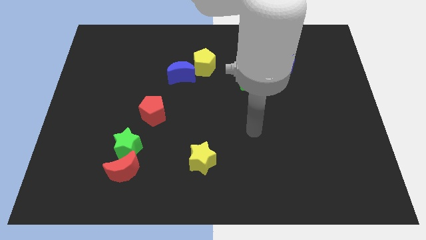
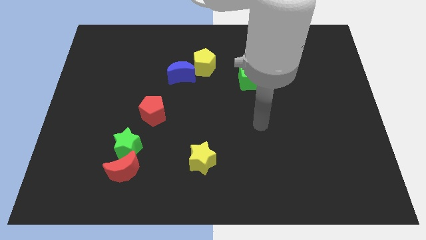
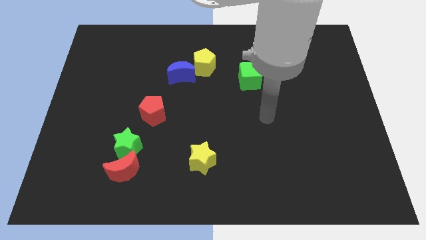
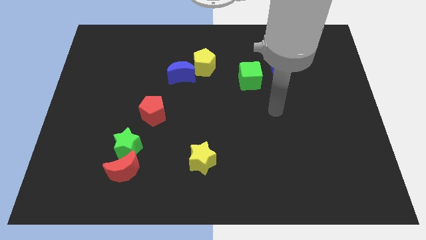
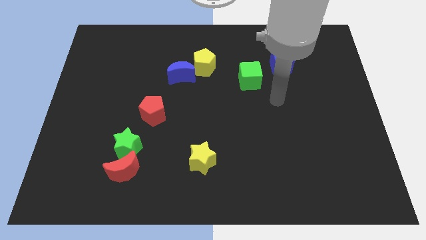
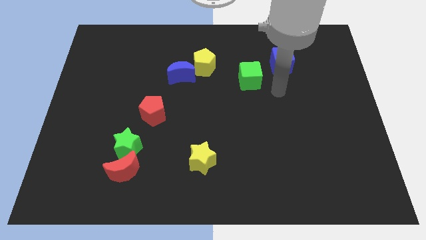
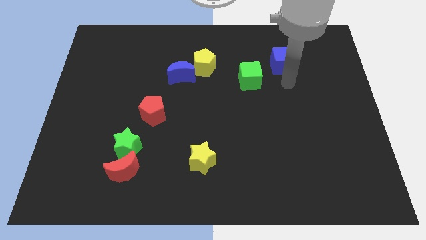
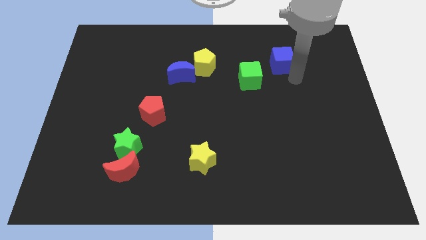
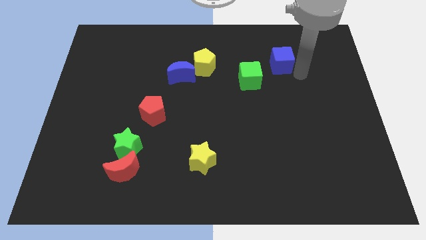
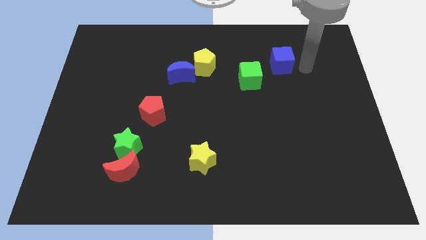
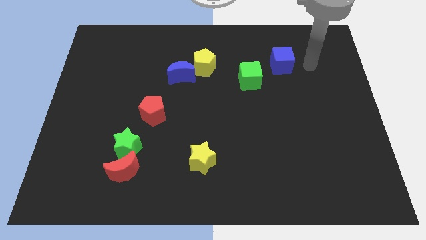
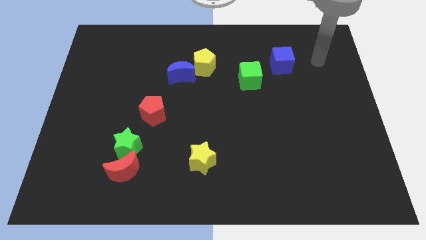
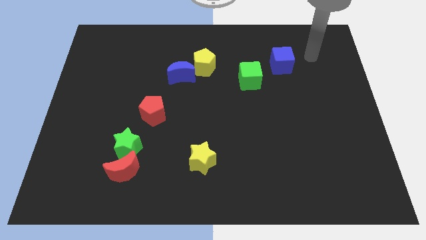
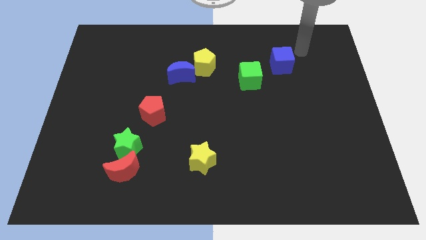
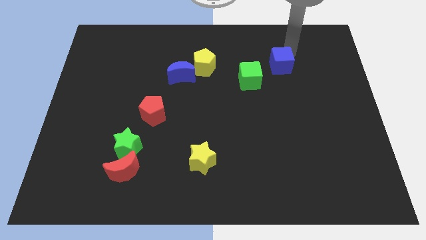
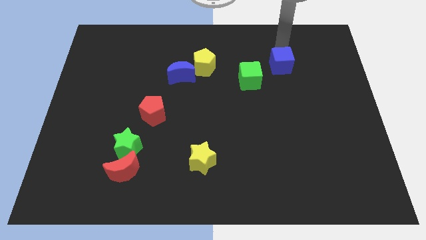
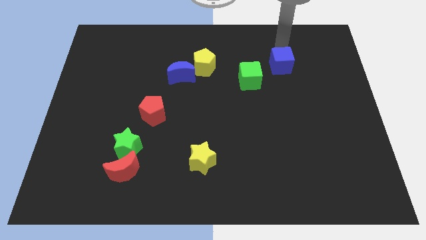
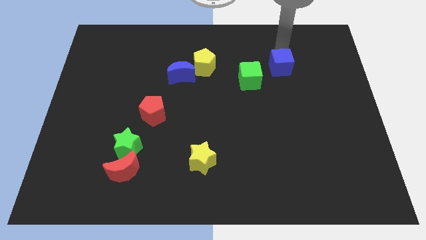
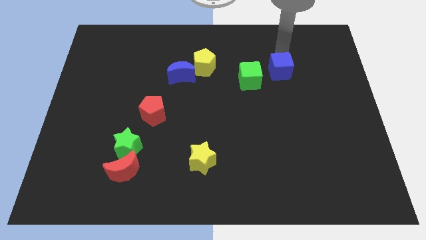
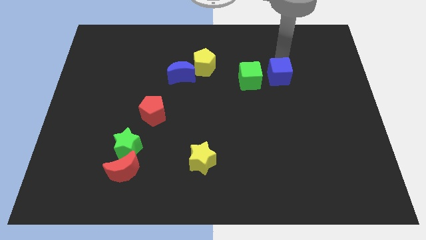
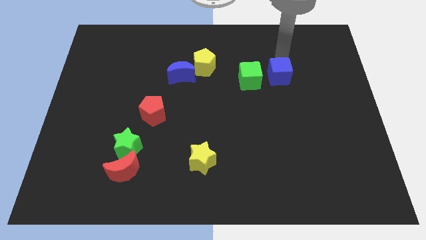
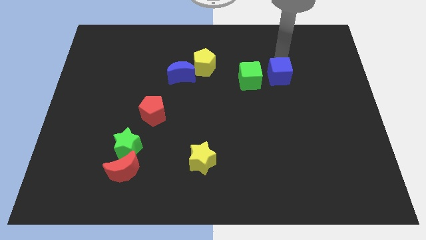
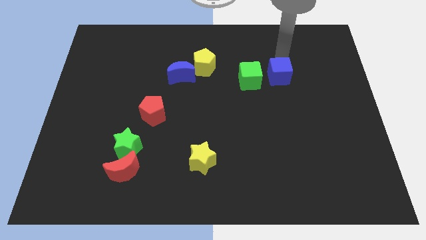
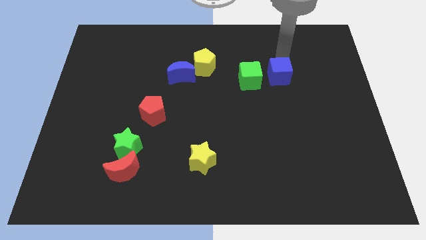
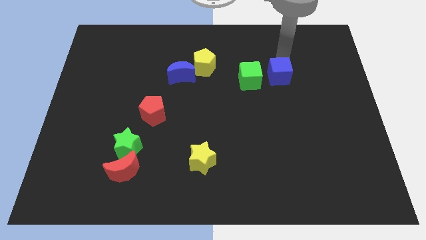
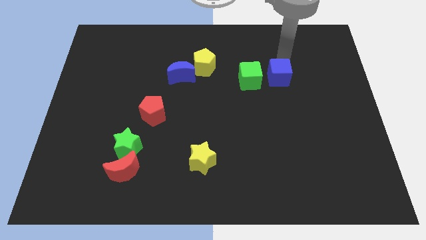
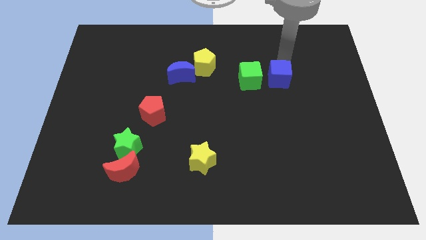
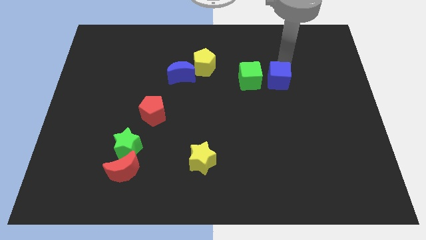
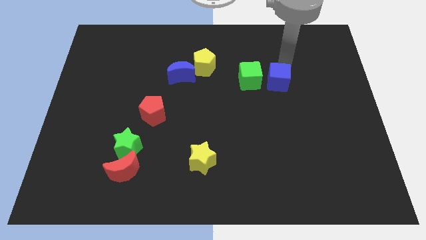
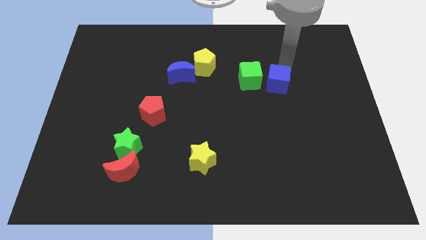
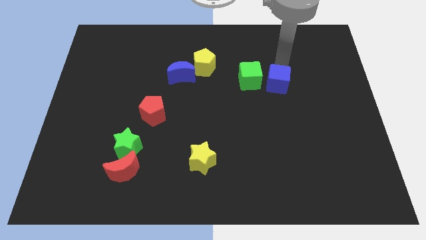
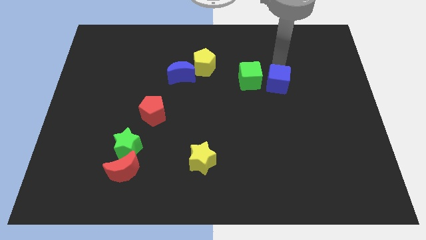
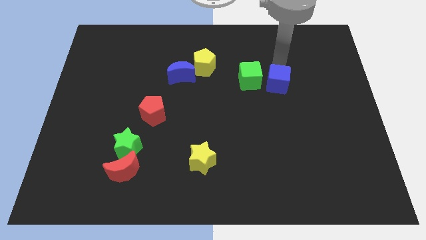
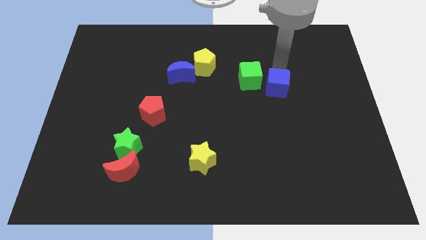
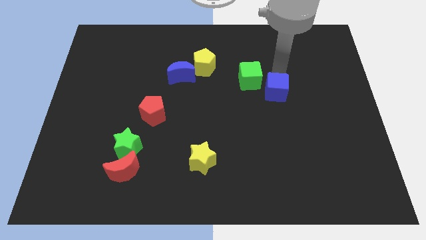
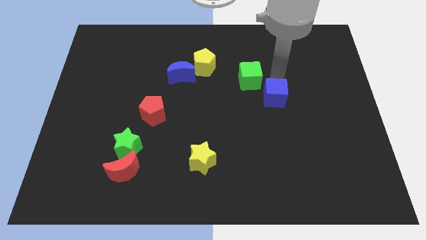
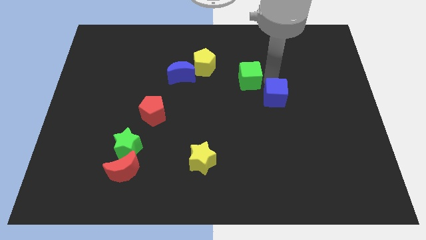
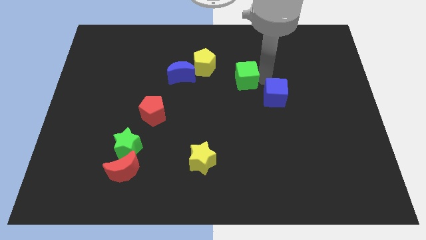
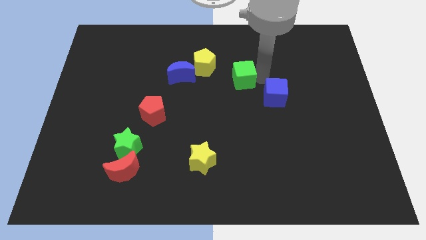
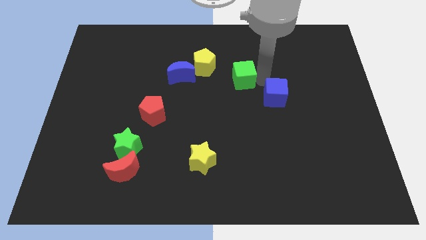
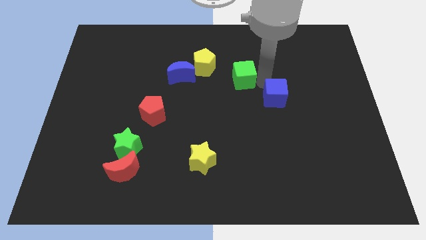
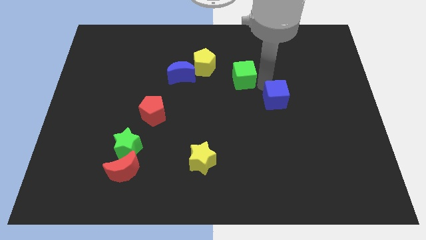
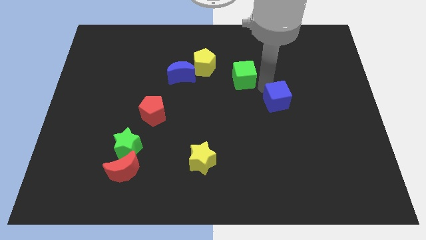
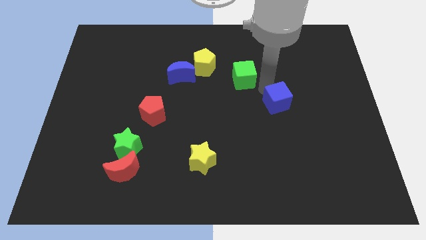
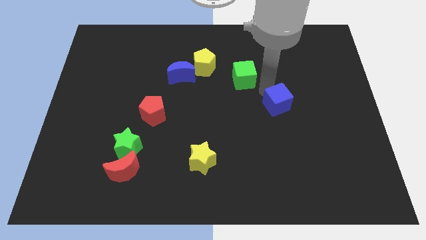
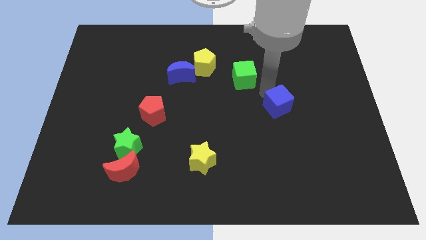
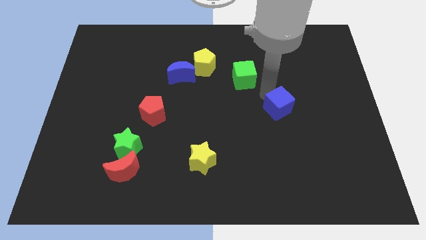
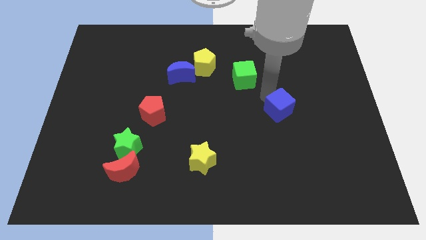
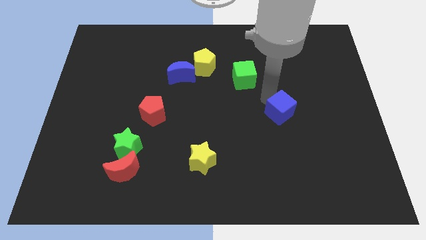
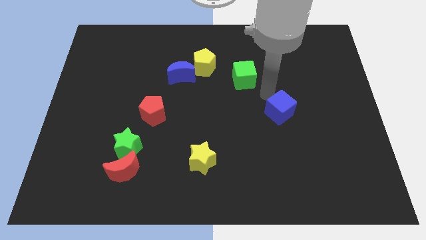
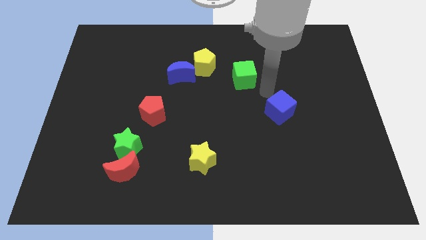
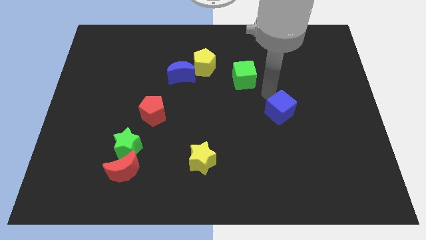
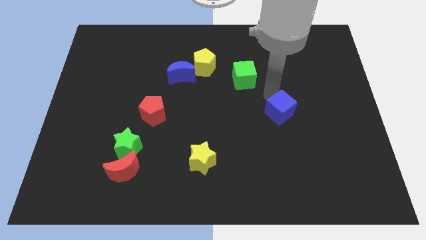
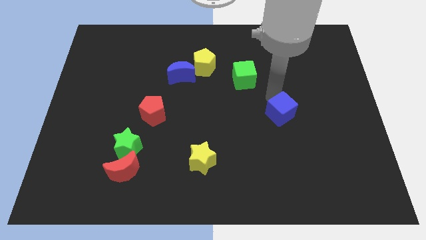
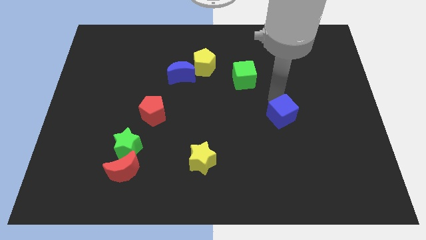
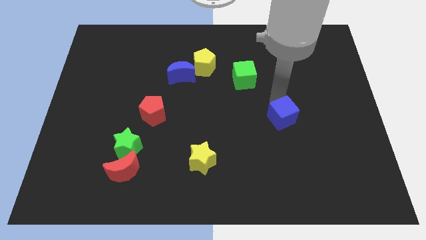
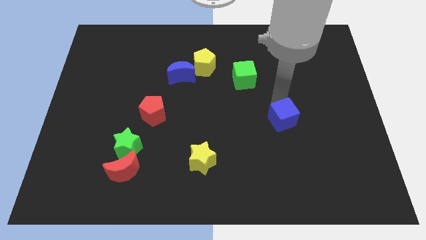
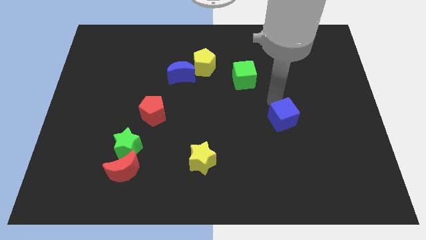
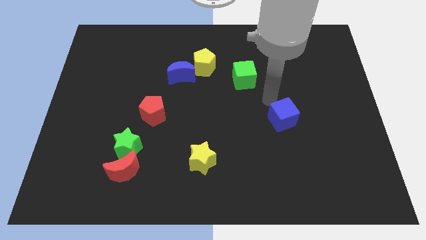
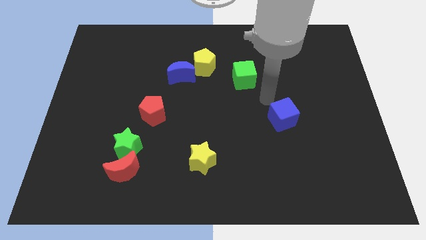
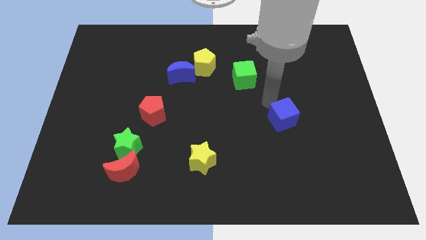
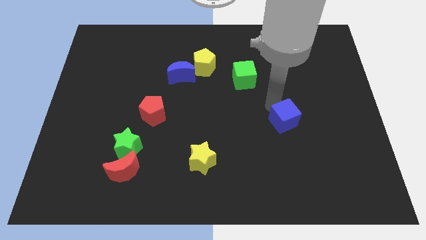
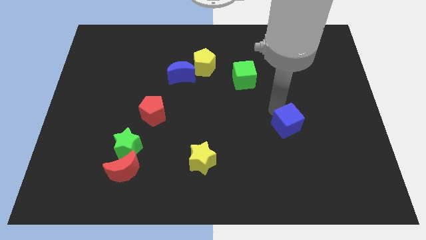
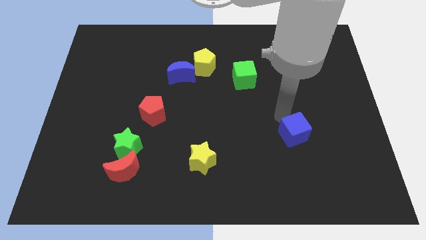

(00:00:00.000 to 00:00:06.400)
slide the blue cube down

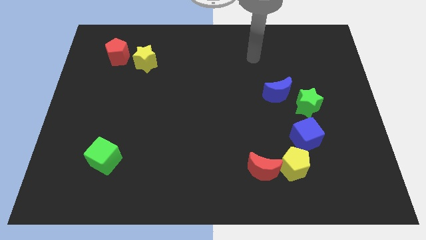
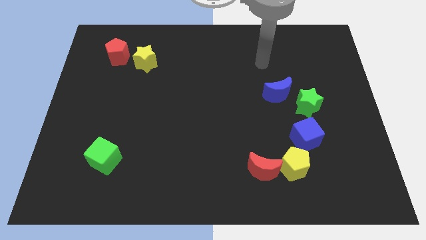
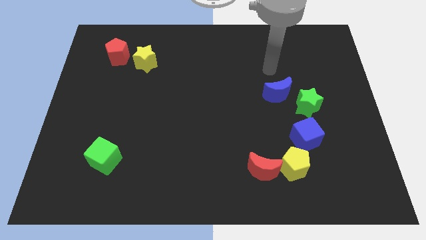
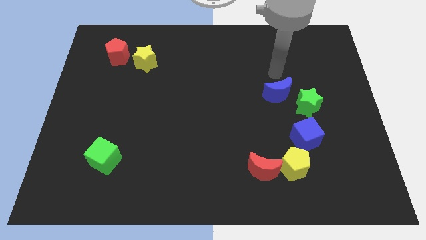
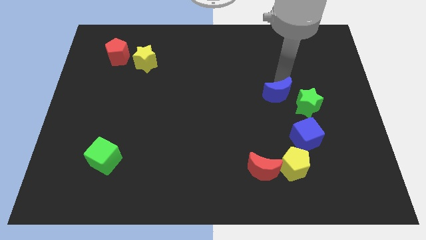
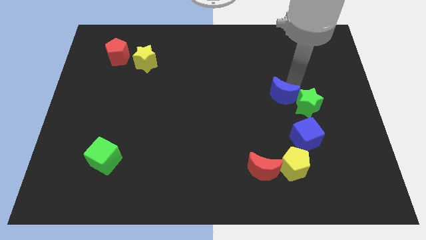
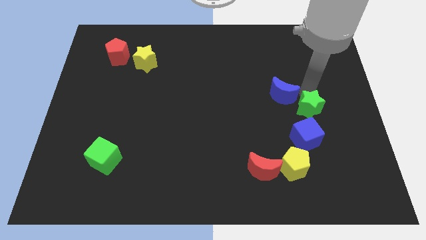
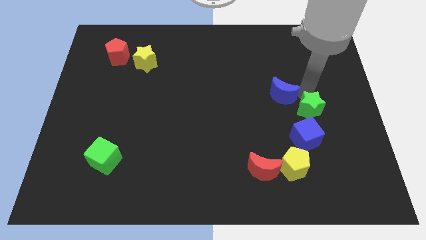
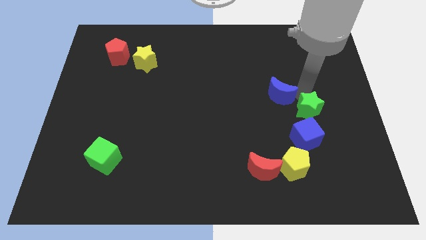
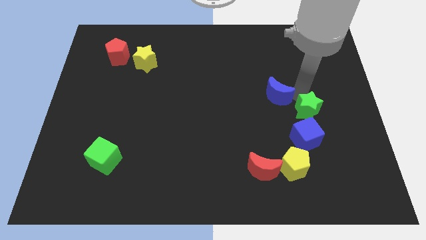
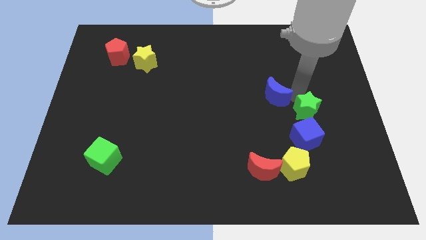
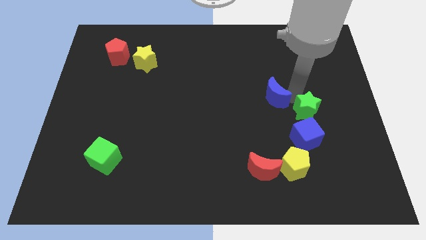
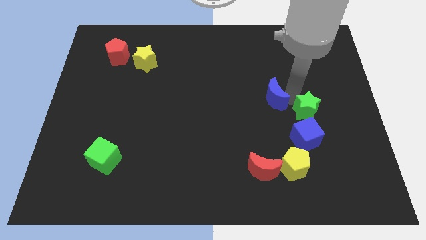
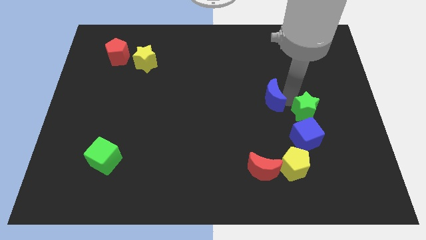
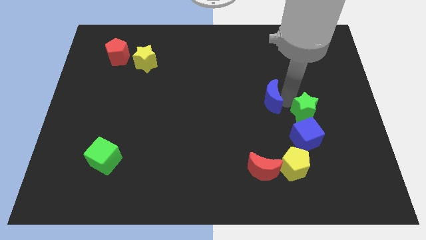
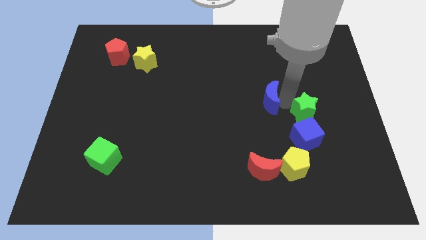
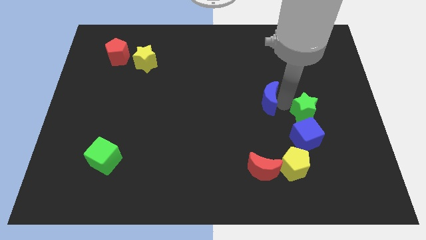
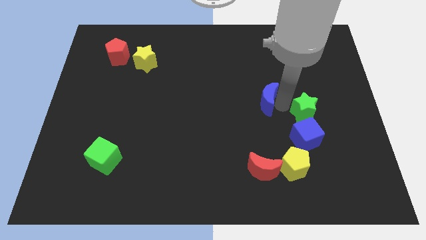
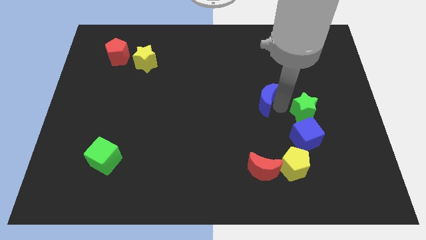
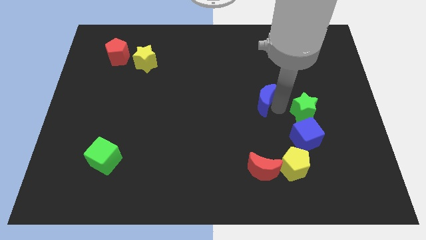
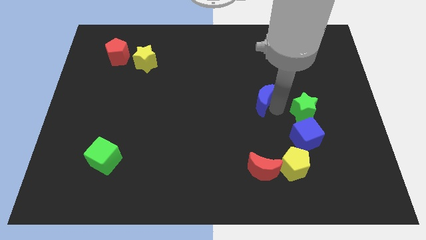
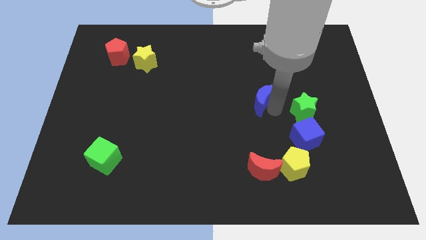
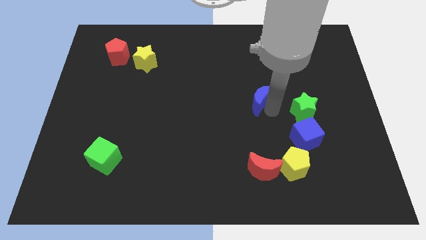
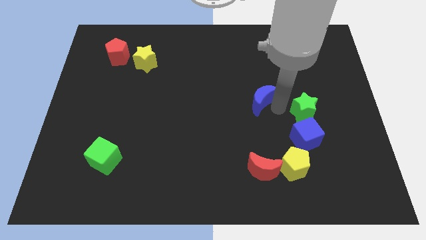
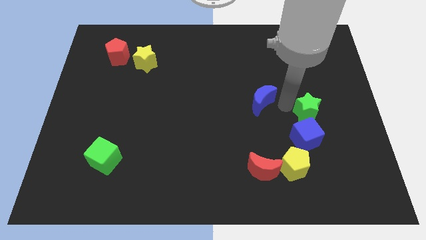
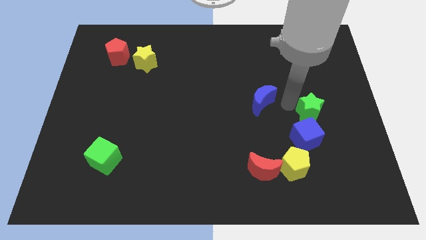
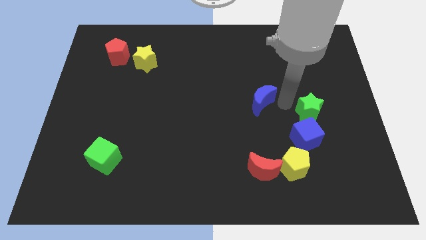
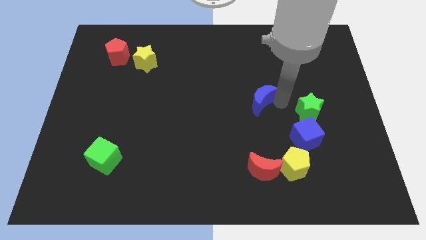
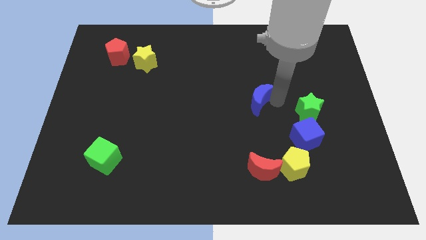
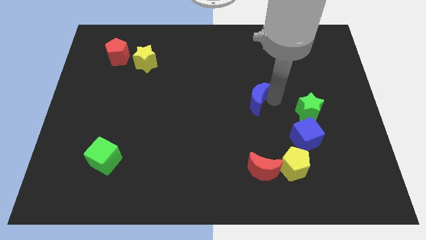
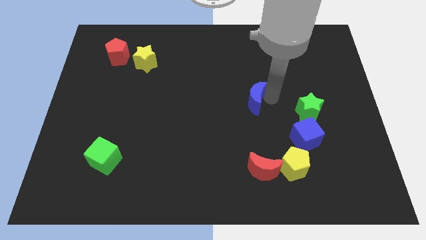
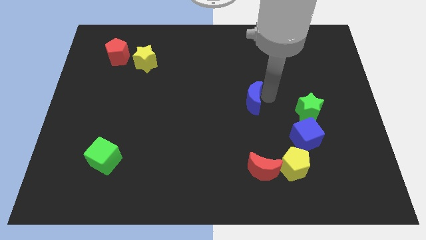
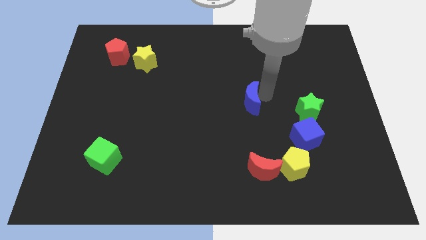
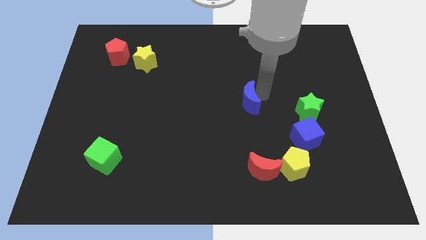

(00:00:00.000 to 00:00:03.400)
push the blue moon left somewhat
